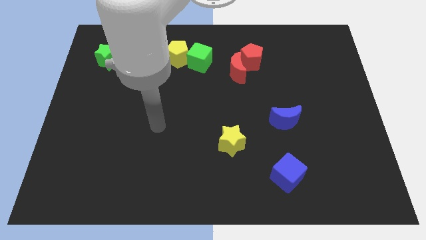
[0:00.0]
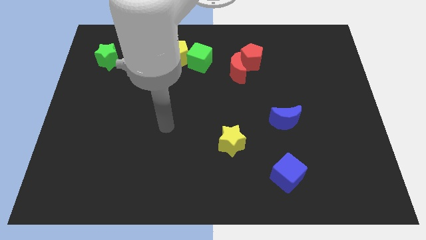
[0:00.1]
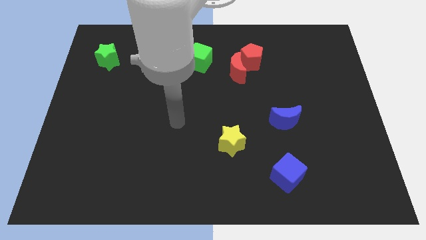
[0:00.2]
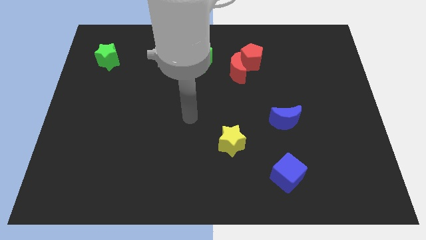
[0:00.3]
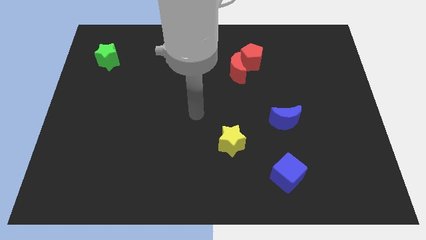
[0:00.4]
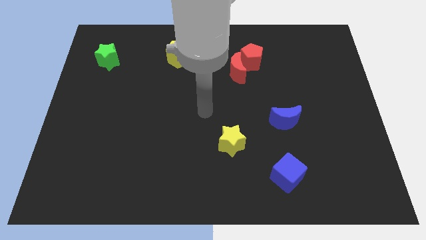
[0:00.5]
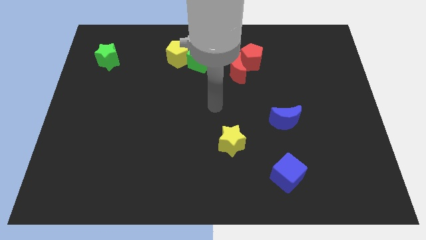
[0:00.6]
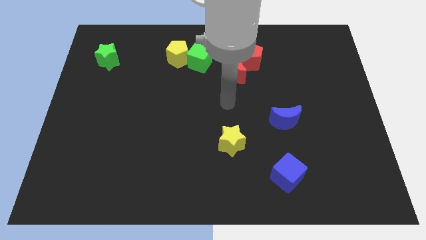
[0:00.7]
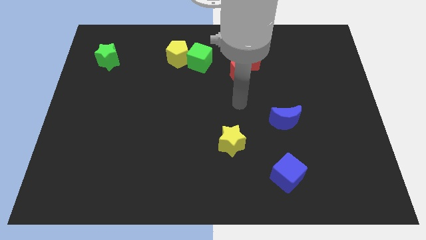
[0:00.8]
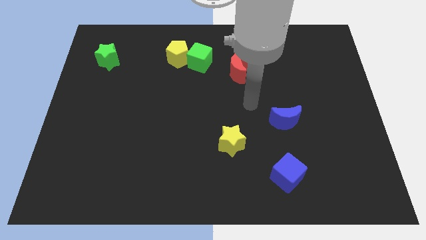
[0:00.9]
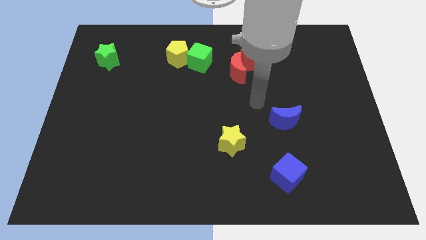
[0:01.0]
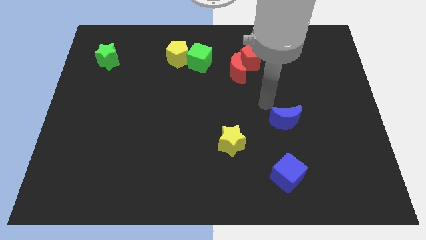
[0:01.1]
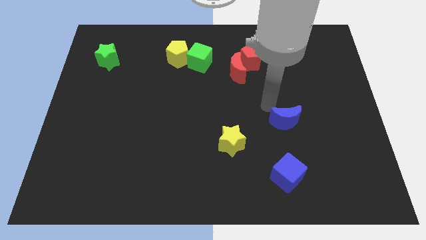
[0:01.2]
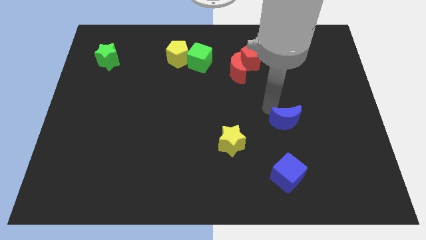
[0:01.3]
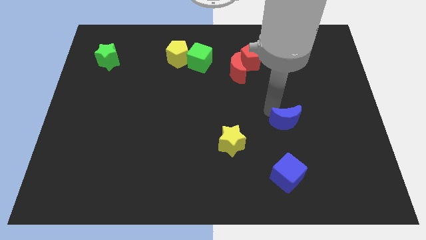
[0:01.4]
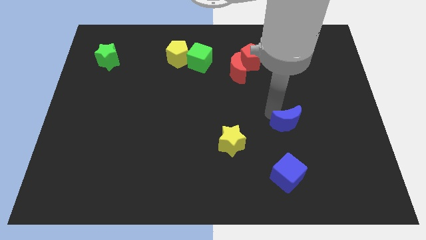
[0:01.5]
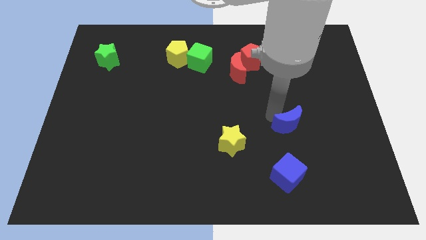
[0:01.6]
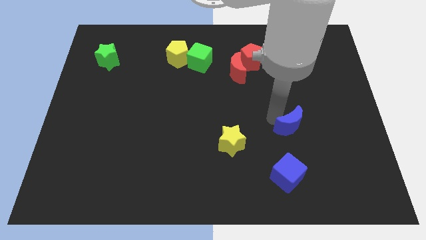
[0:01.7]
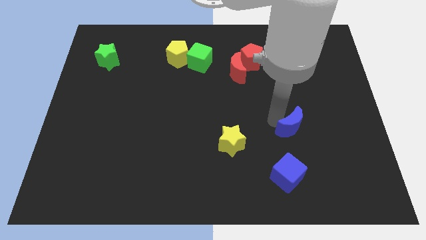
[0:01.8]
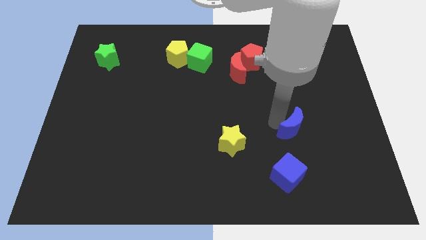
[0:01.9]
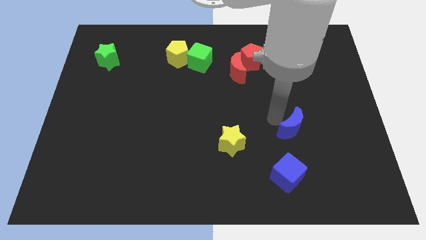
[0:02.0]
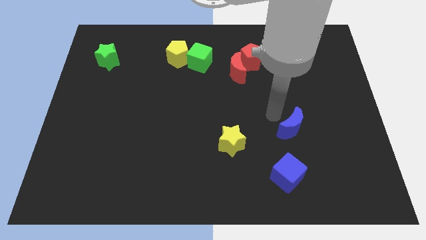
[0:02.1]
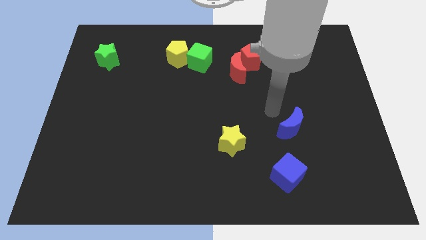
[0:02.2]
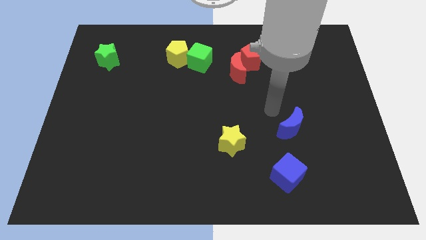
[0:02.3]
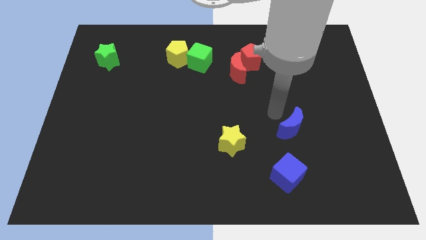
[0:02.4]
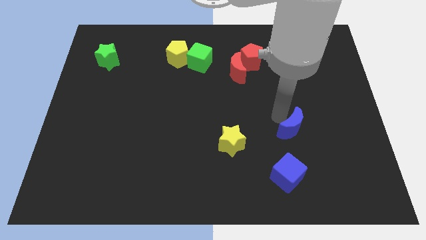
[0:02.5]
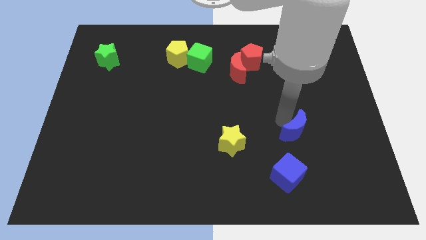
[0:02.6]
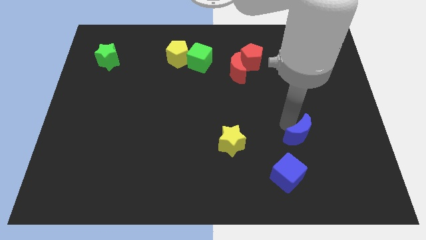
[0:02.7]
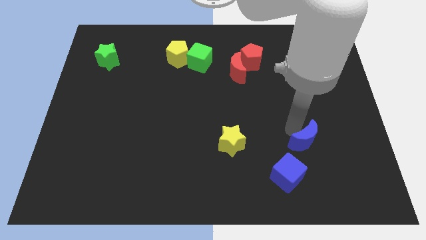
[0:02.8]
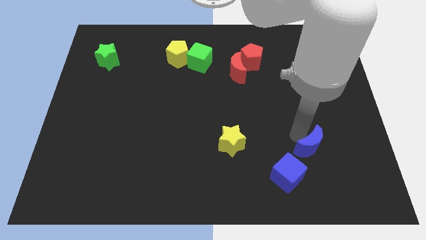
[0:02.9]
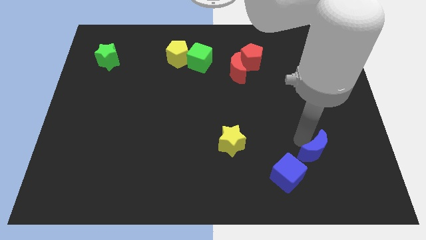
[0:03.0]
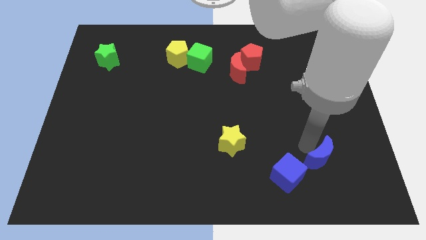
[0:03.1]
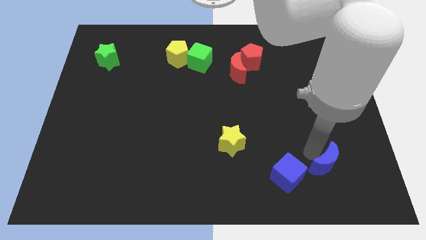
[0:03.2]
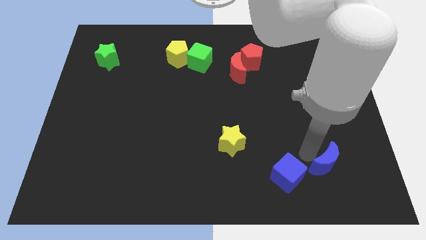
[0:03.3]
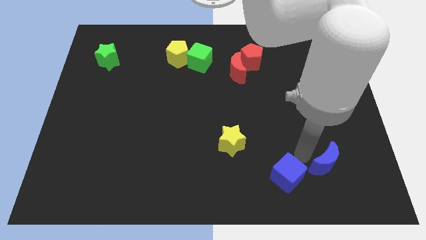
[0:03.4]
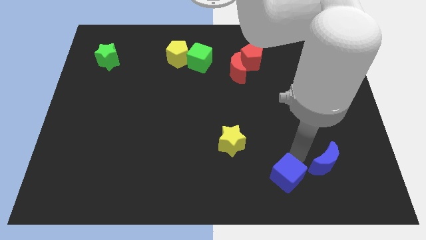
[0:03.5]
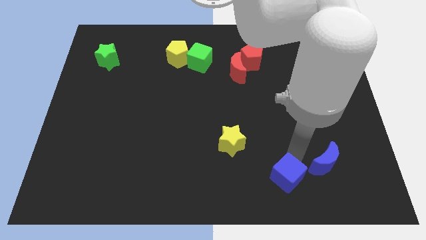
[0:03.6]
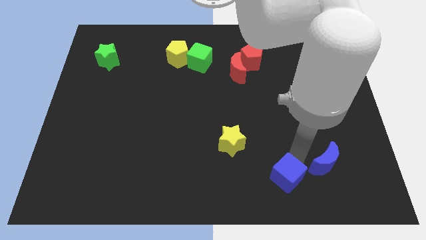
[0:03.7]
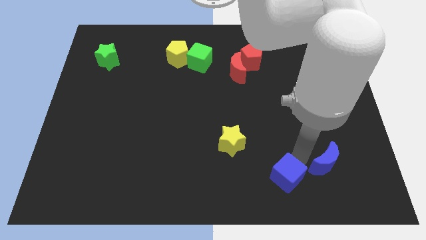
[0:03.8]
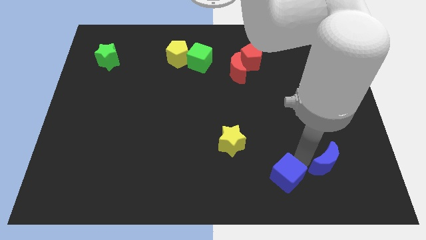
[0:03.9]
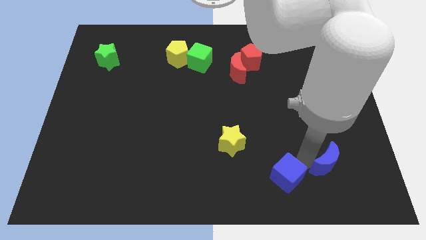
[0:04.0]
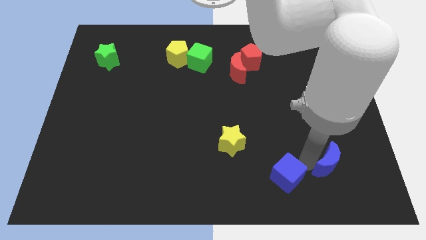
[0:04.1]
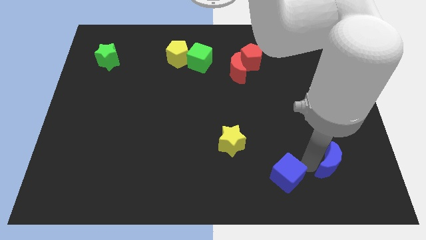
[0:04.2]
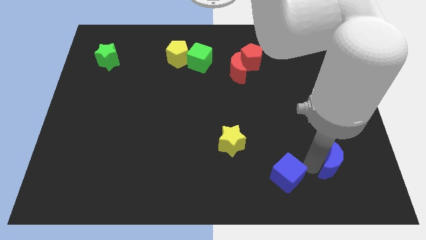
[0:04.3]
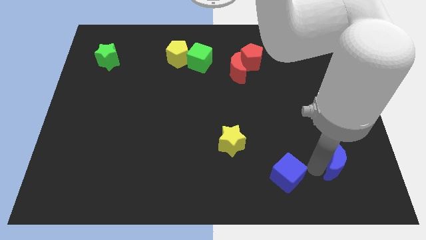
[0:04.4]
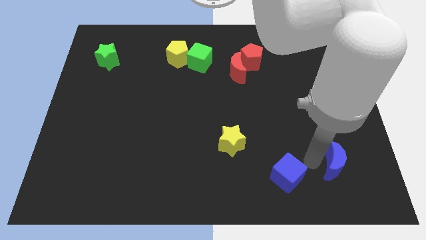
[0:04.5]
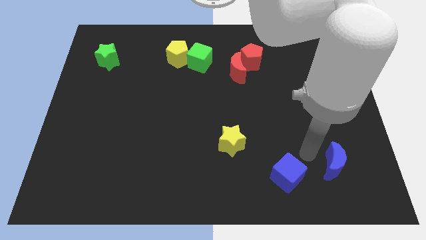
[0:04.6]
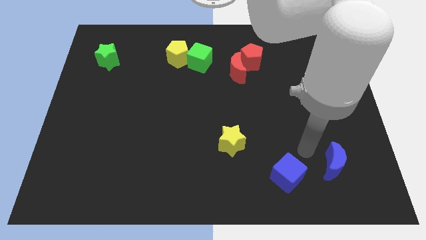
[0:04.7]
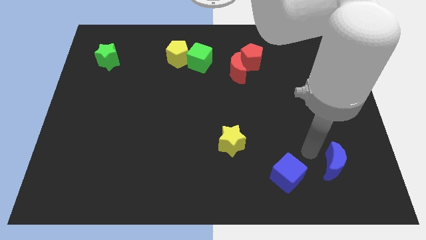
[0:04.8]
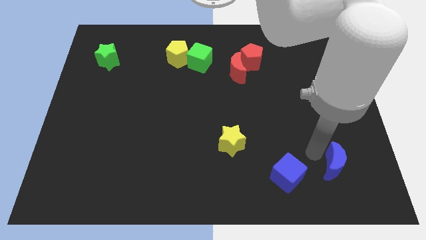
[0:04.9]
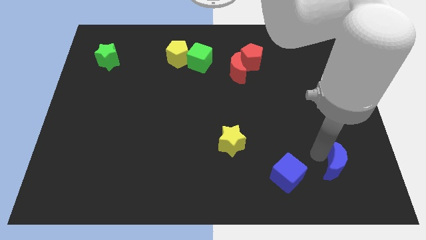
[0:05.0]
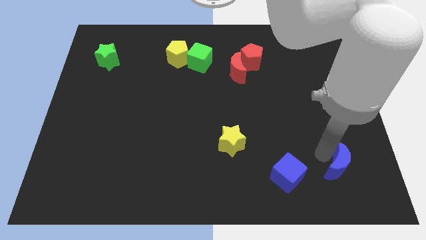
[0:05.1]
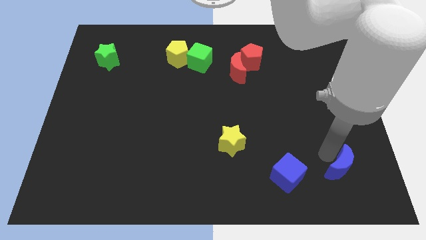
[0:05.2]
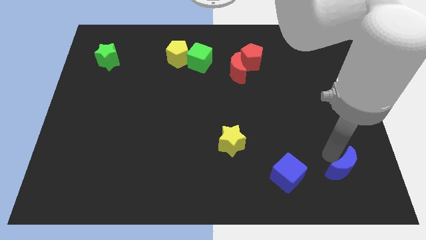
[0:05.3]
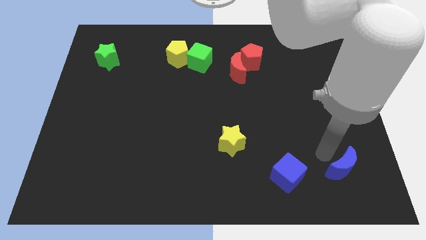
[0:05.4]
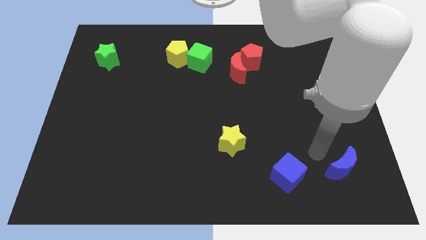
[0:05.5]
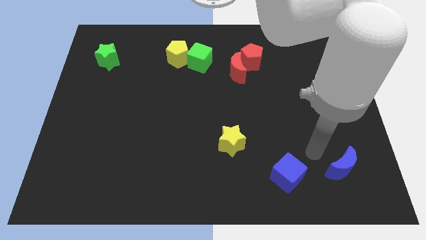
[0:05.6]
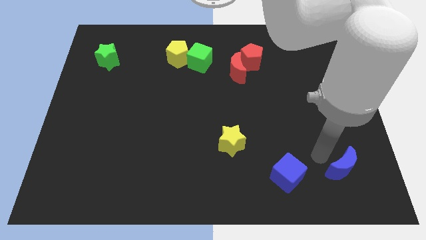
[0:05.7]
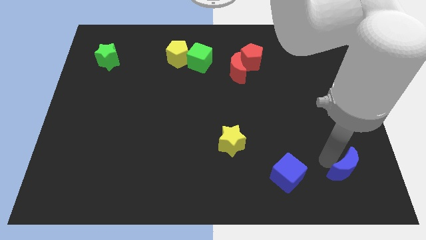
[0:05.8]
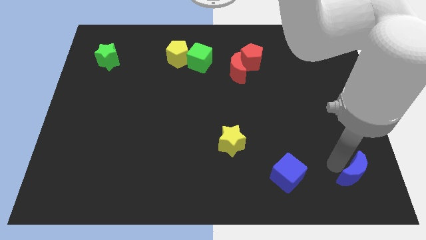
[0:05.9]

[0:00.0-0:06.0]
put the blue moon to the bottom right
